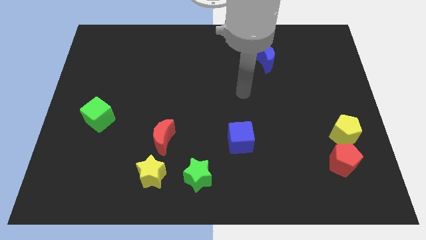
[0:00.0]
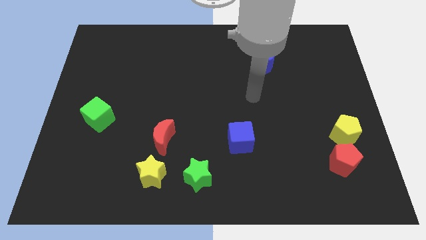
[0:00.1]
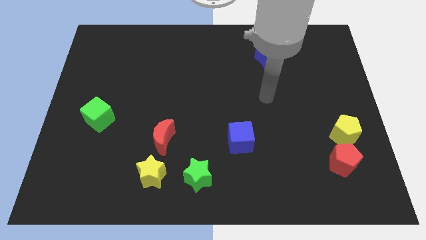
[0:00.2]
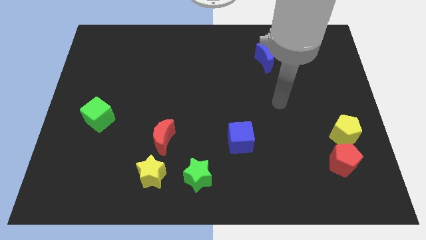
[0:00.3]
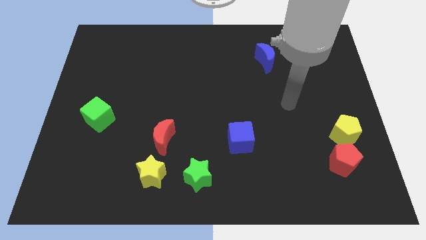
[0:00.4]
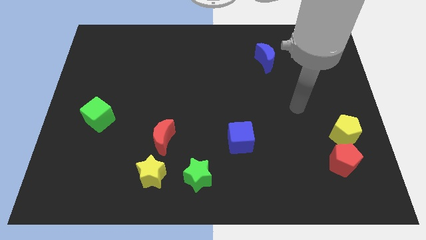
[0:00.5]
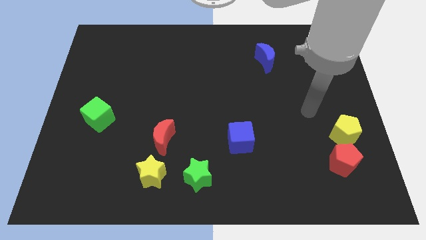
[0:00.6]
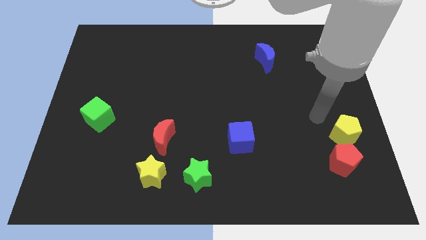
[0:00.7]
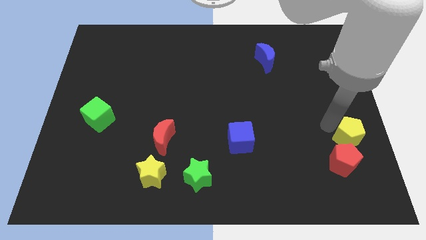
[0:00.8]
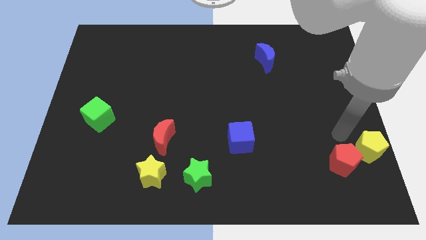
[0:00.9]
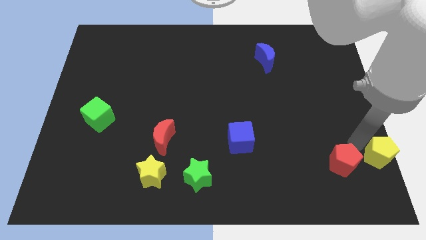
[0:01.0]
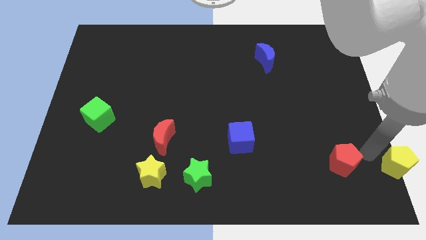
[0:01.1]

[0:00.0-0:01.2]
move the red pentagon away from the yellow pentagon

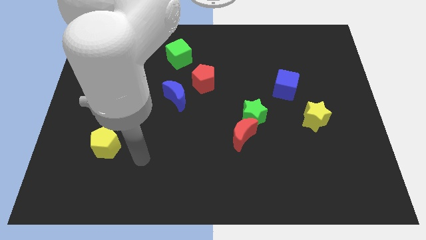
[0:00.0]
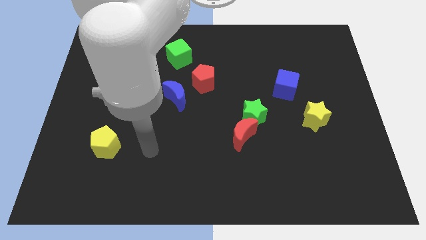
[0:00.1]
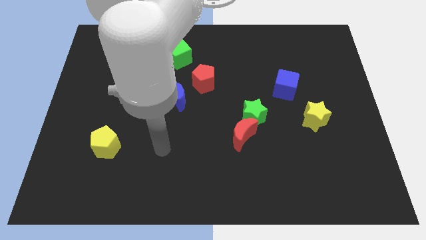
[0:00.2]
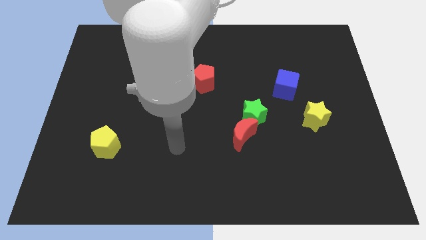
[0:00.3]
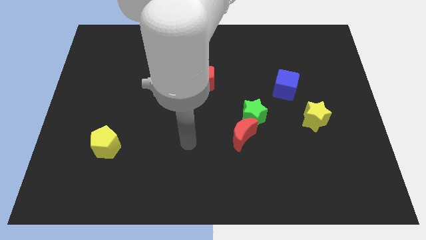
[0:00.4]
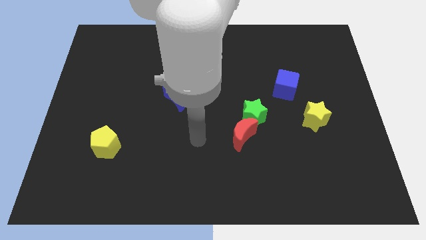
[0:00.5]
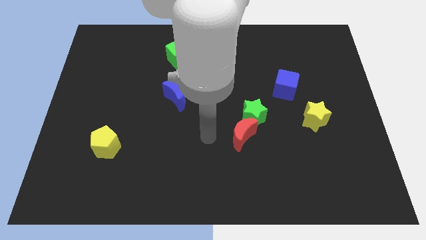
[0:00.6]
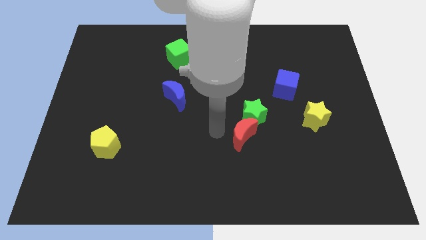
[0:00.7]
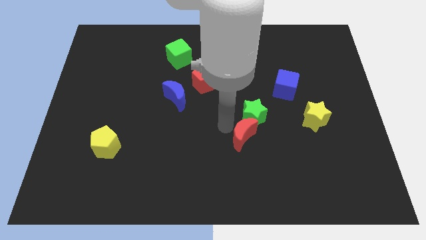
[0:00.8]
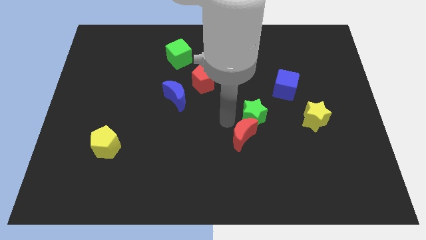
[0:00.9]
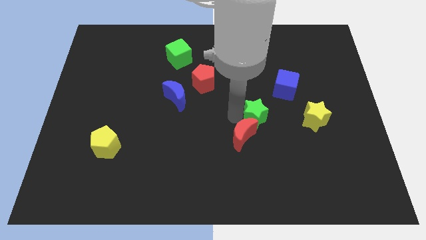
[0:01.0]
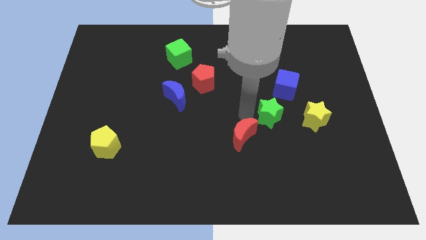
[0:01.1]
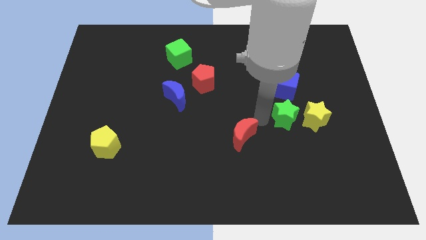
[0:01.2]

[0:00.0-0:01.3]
separate the red moon from the green star

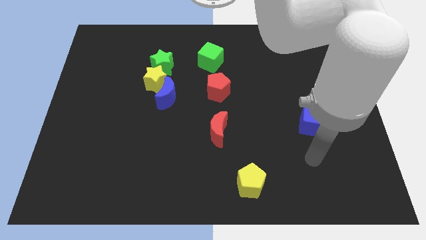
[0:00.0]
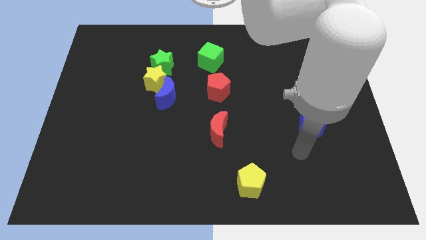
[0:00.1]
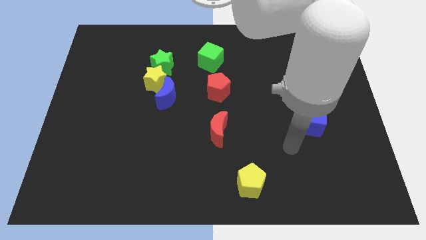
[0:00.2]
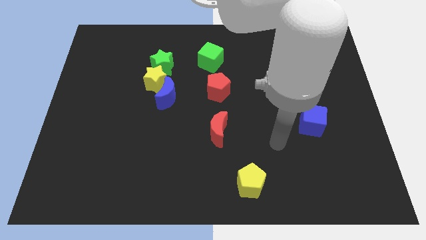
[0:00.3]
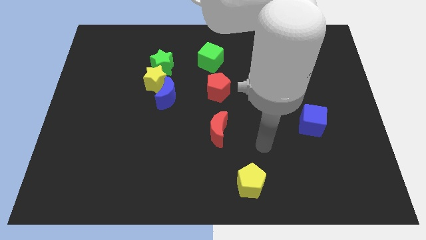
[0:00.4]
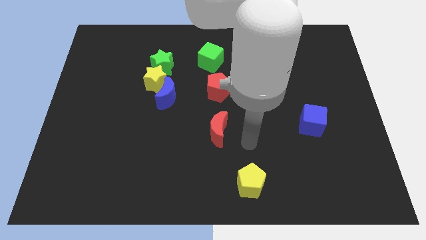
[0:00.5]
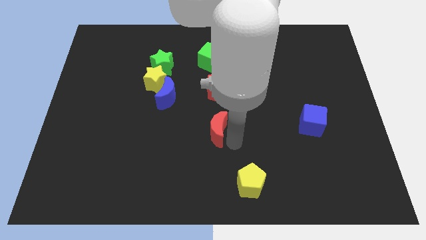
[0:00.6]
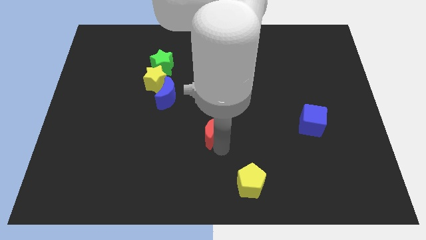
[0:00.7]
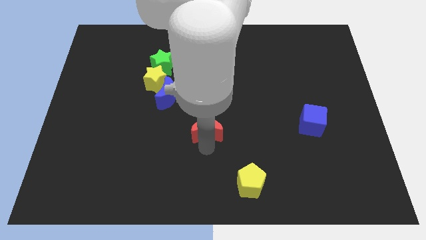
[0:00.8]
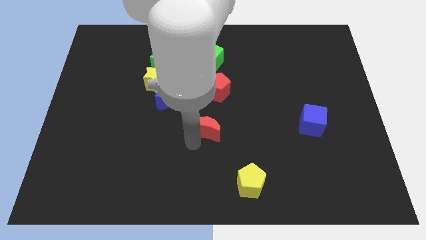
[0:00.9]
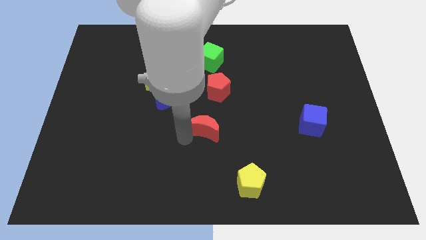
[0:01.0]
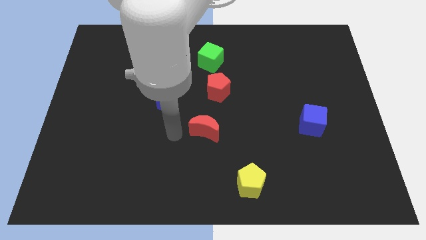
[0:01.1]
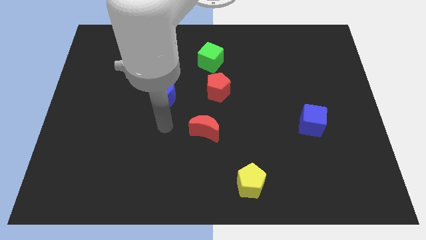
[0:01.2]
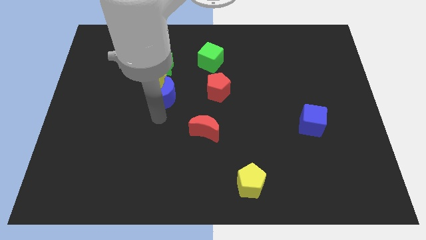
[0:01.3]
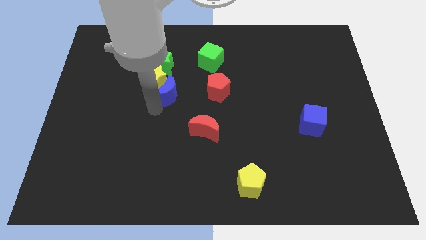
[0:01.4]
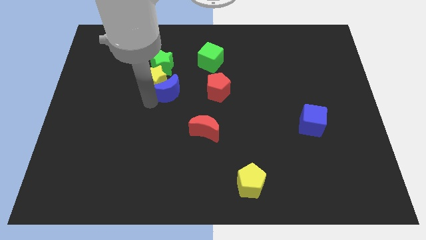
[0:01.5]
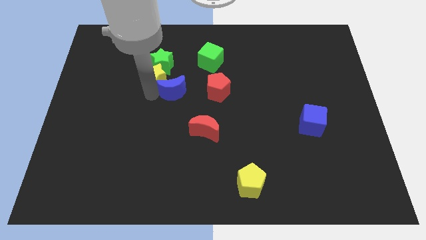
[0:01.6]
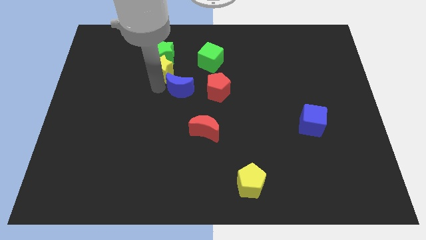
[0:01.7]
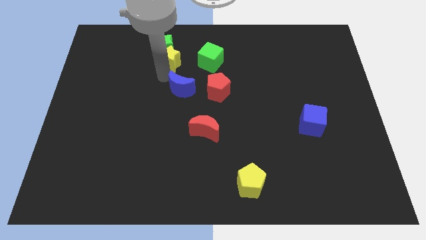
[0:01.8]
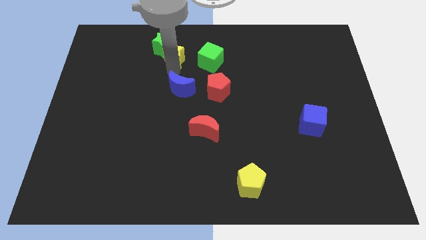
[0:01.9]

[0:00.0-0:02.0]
pull the blue moon apart from the yellow star

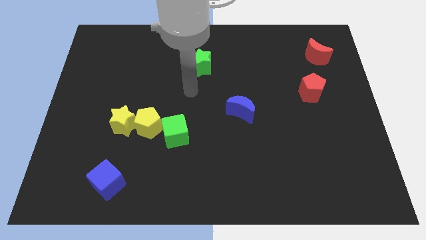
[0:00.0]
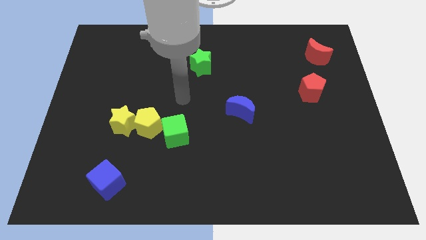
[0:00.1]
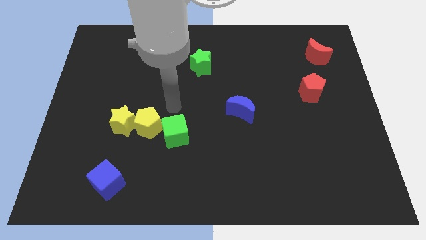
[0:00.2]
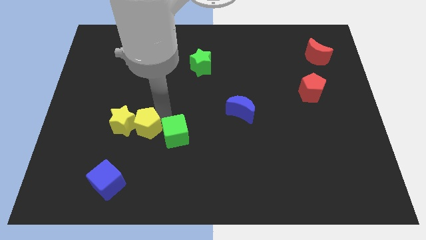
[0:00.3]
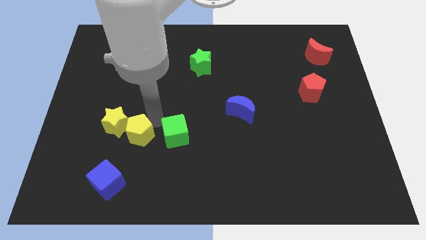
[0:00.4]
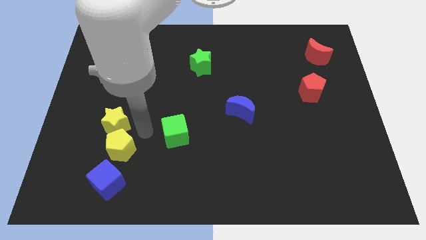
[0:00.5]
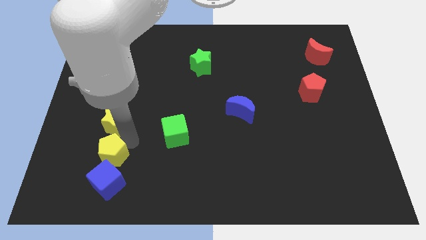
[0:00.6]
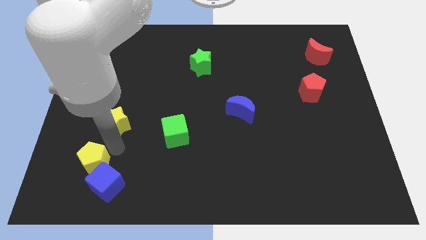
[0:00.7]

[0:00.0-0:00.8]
pull the yellow star apart from the yellow pentagon

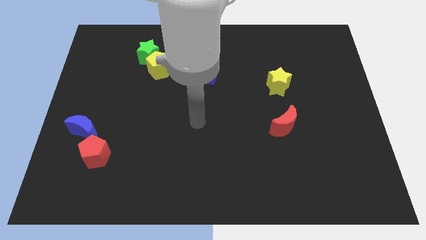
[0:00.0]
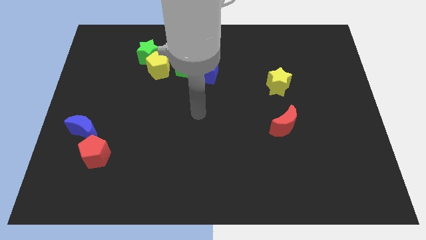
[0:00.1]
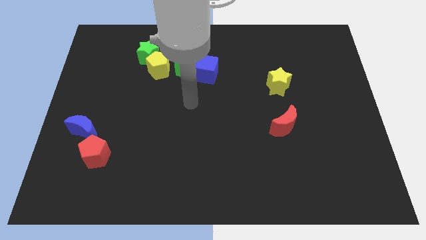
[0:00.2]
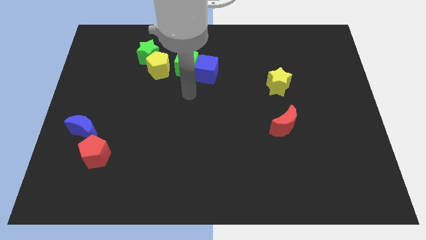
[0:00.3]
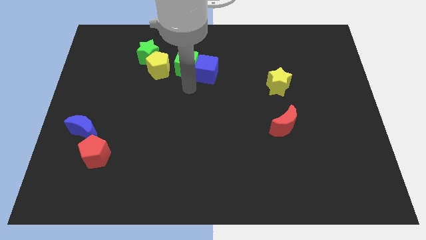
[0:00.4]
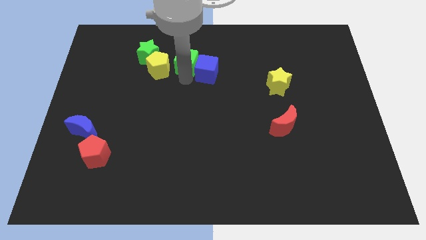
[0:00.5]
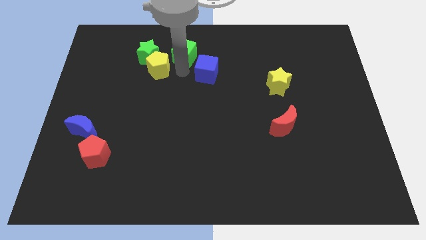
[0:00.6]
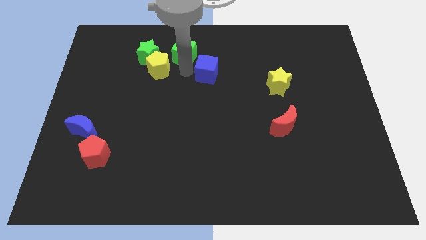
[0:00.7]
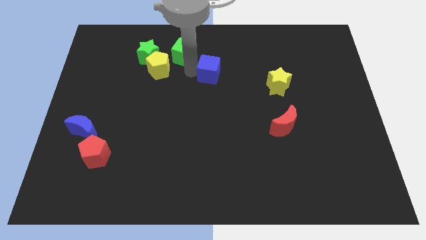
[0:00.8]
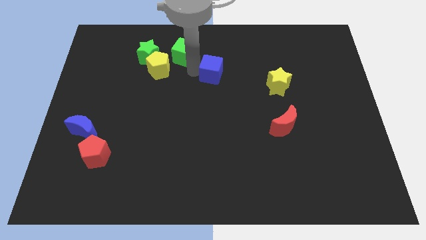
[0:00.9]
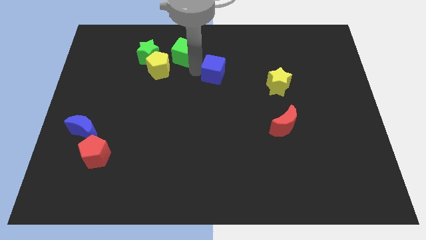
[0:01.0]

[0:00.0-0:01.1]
separate the blue cube from the green cube

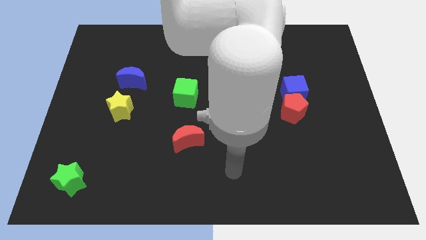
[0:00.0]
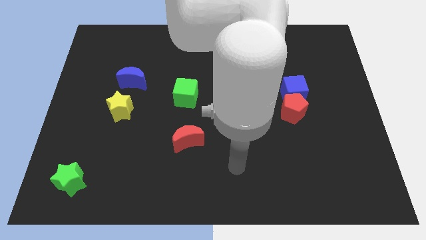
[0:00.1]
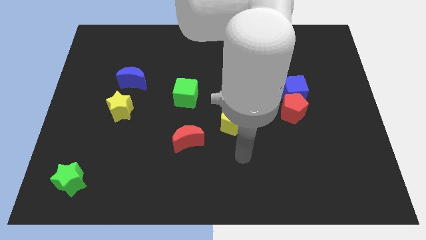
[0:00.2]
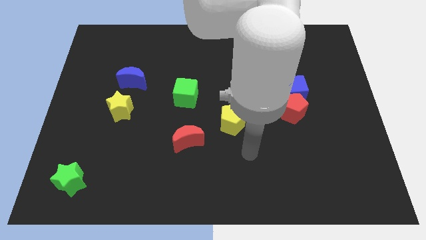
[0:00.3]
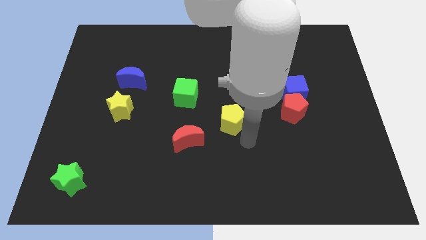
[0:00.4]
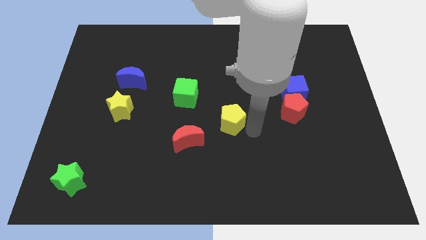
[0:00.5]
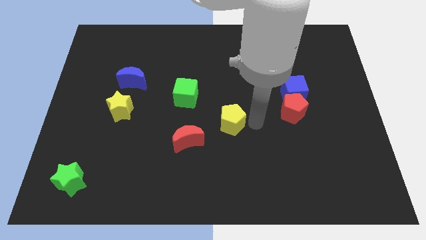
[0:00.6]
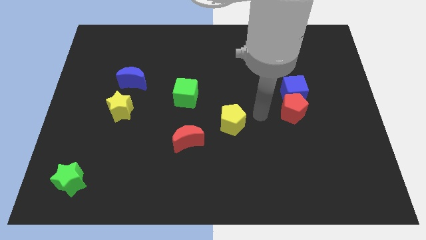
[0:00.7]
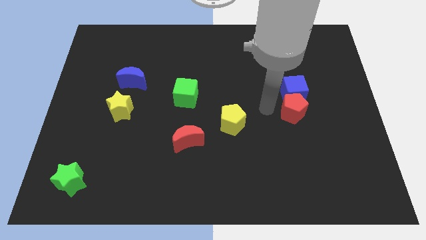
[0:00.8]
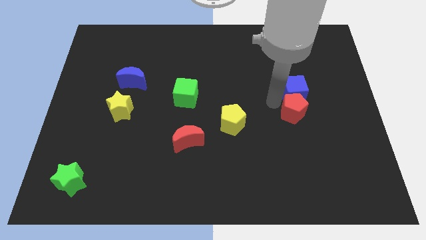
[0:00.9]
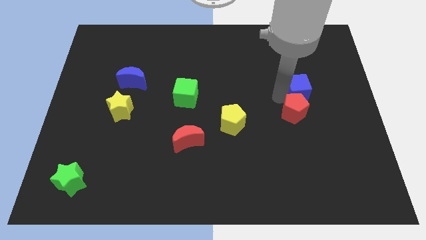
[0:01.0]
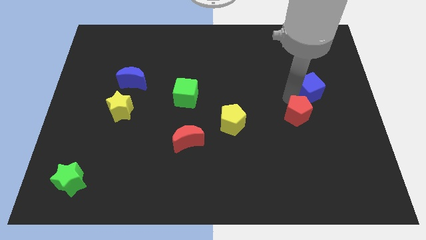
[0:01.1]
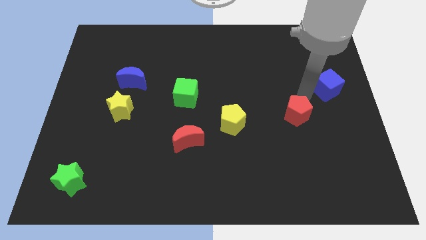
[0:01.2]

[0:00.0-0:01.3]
move the red pentagon away from the blue cube

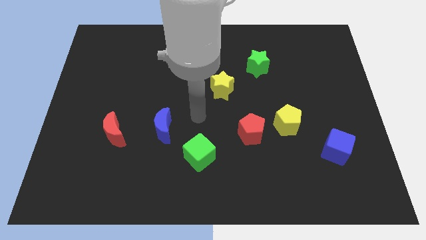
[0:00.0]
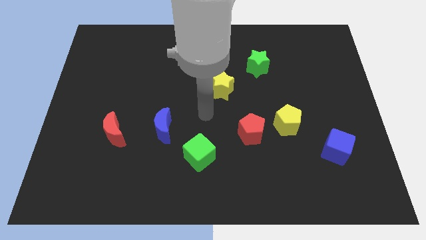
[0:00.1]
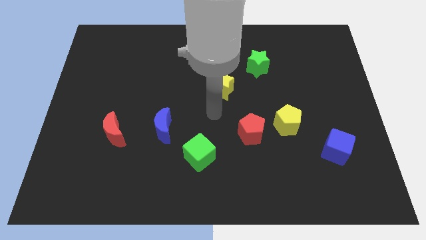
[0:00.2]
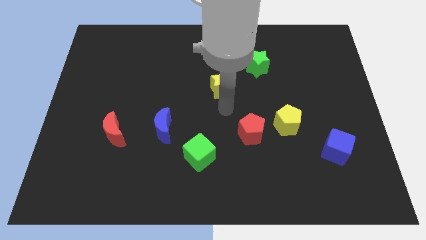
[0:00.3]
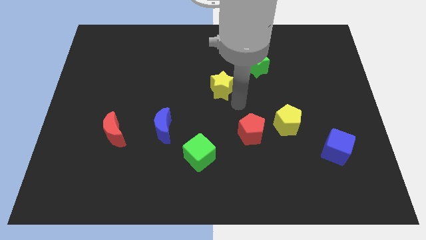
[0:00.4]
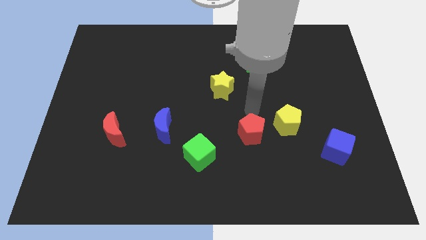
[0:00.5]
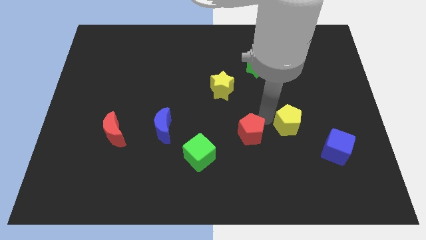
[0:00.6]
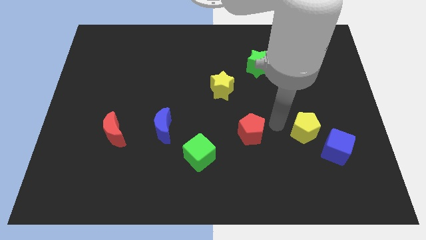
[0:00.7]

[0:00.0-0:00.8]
separate the red pentagon from the yellow pentagon

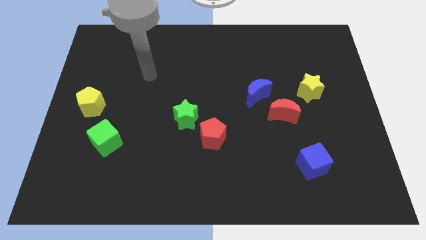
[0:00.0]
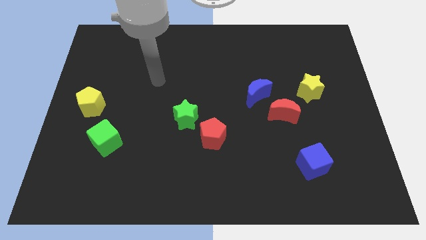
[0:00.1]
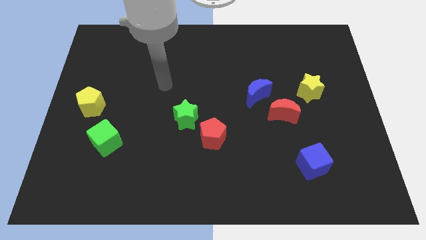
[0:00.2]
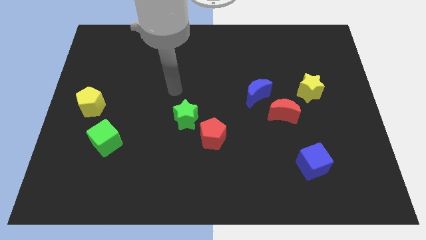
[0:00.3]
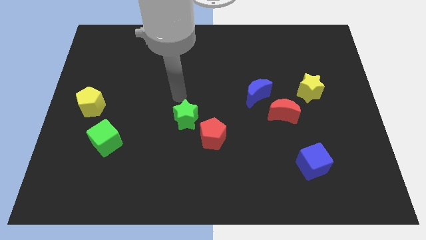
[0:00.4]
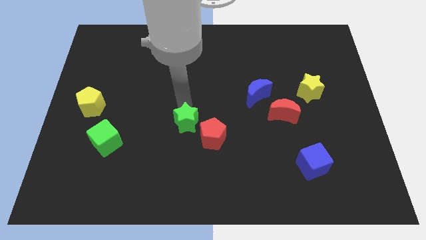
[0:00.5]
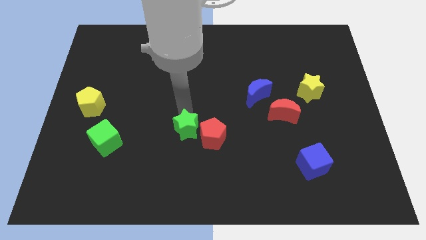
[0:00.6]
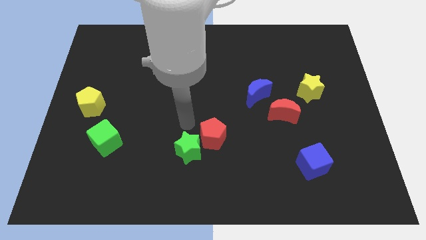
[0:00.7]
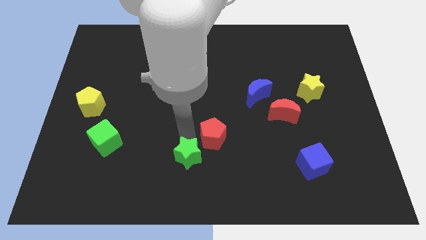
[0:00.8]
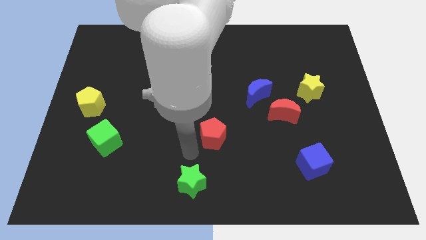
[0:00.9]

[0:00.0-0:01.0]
move the red pentagon away from the green star
